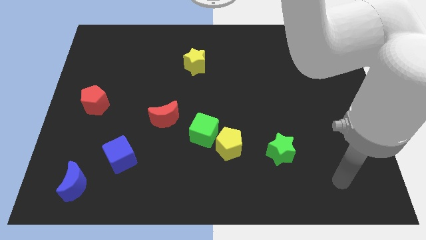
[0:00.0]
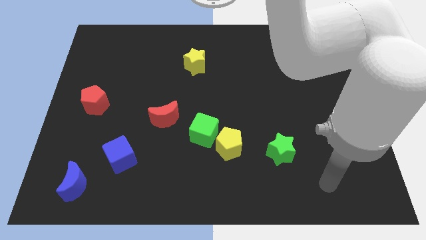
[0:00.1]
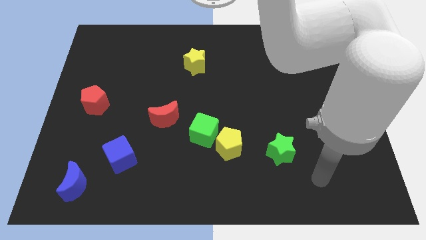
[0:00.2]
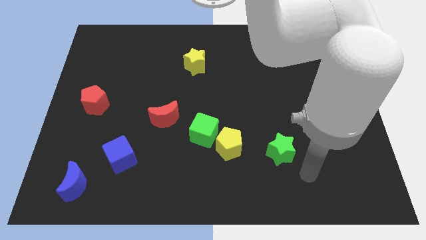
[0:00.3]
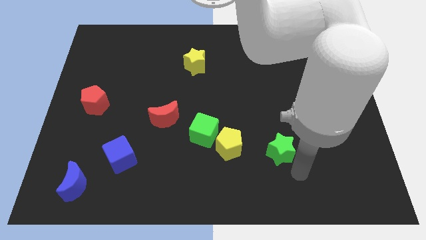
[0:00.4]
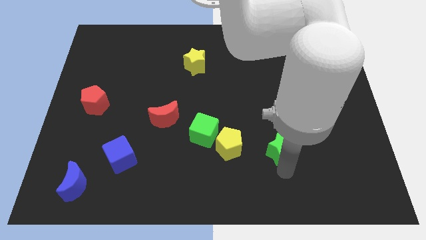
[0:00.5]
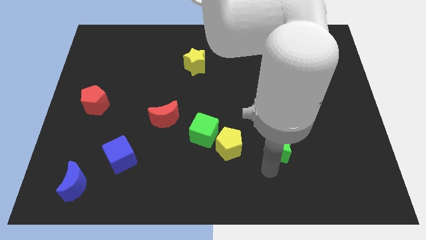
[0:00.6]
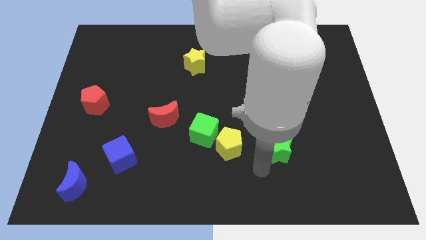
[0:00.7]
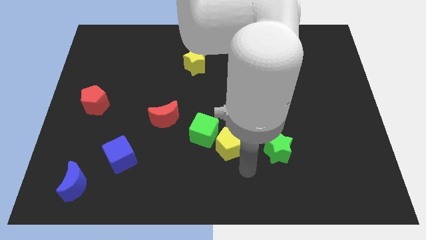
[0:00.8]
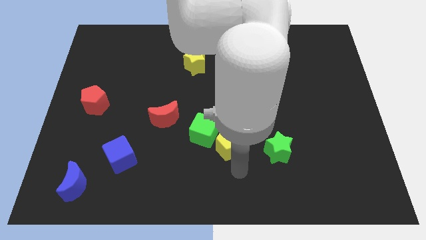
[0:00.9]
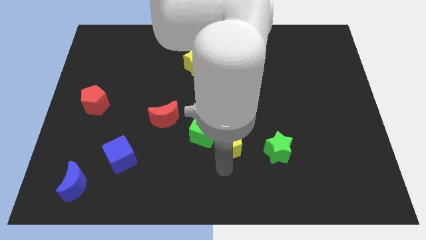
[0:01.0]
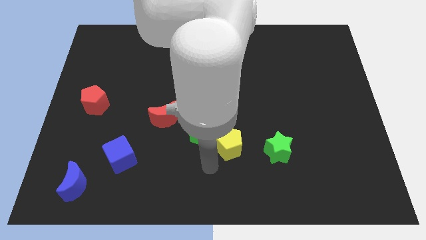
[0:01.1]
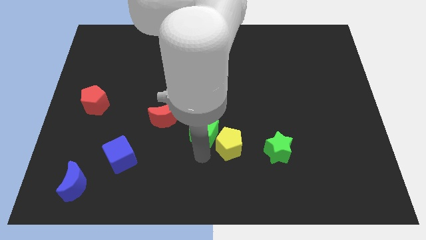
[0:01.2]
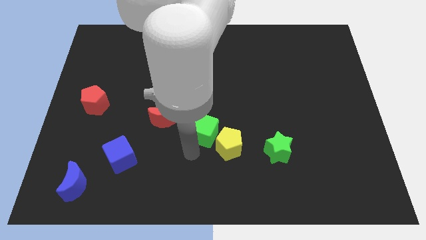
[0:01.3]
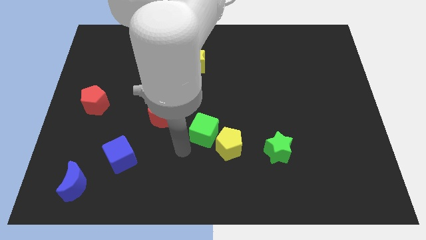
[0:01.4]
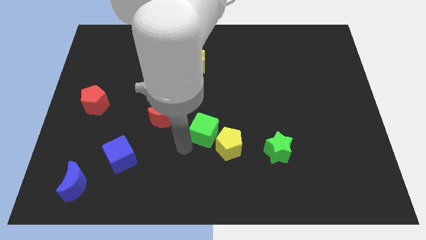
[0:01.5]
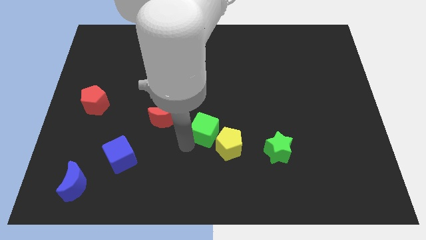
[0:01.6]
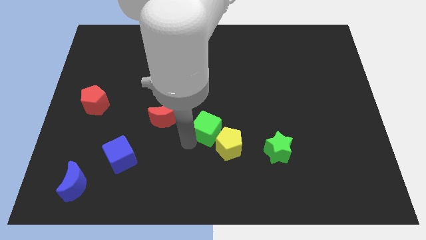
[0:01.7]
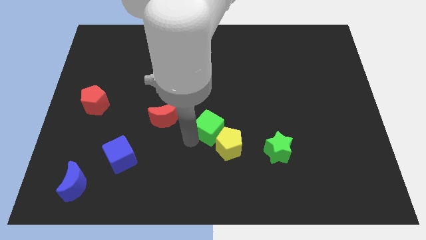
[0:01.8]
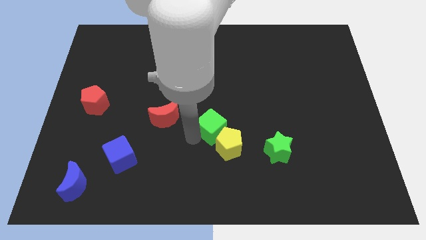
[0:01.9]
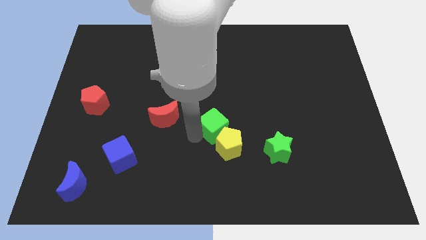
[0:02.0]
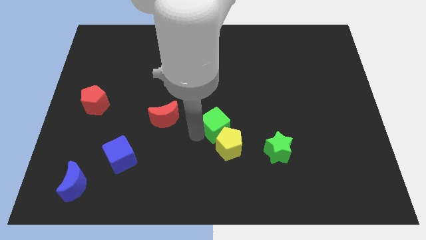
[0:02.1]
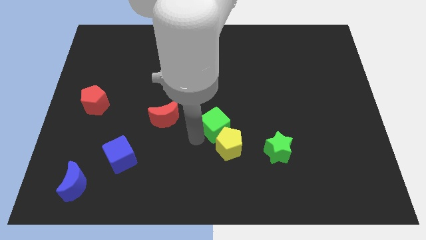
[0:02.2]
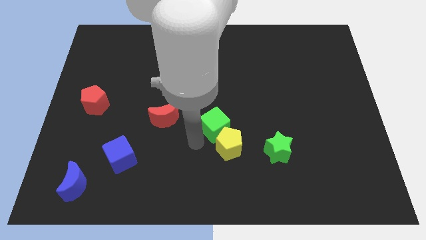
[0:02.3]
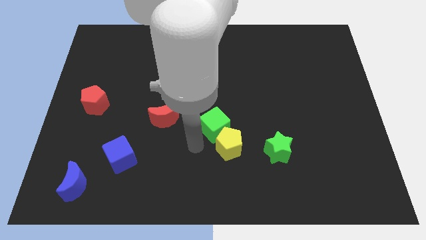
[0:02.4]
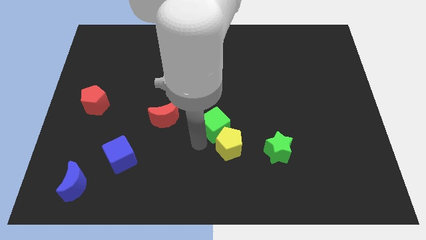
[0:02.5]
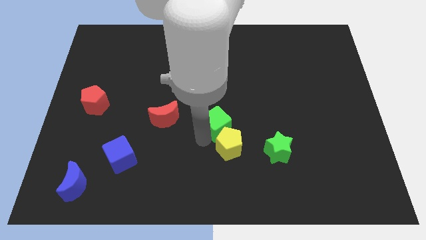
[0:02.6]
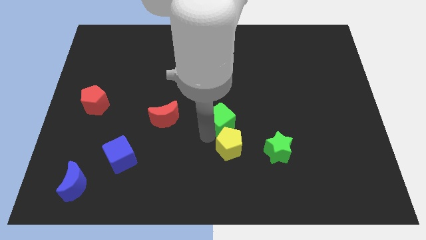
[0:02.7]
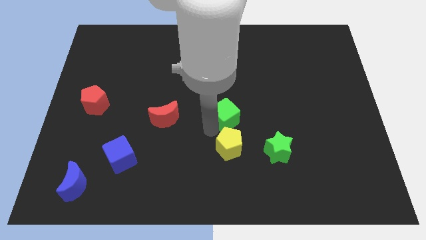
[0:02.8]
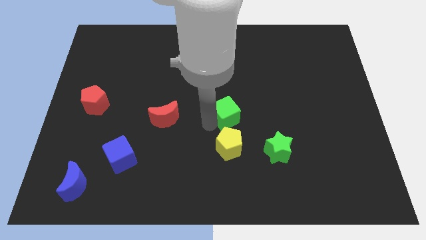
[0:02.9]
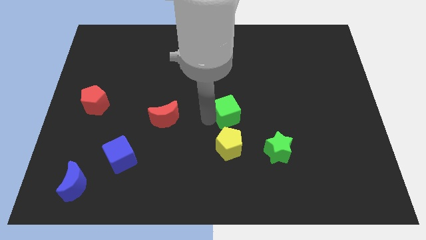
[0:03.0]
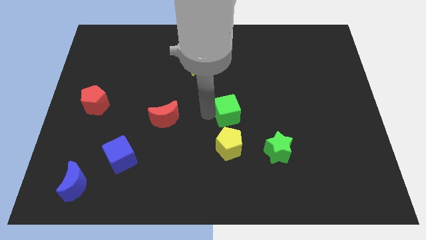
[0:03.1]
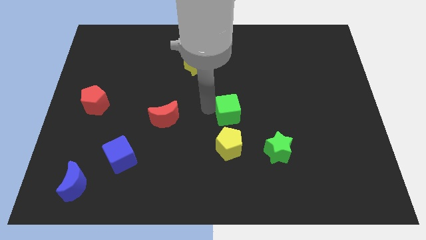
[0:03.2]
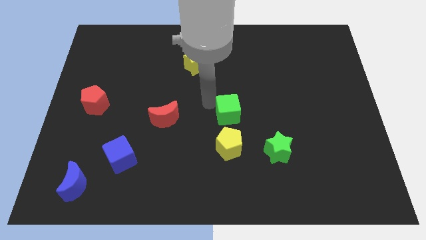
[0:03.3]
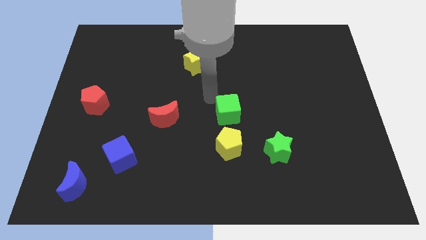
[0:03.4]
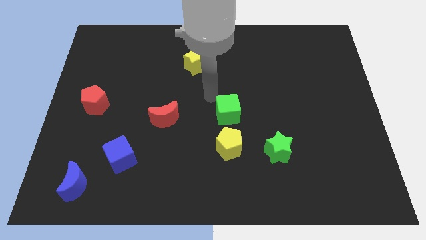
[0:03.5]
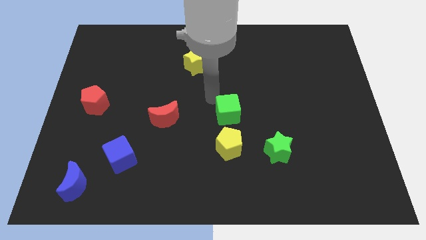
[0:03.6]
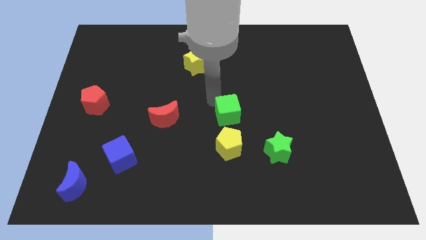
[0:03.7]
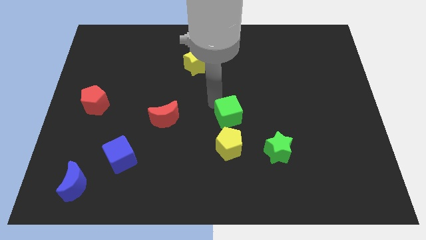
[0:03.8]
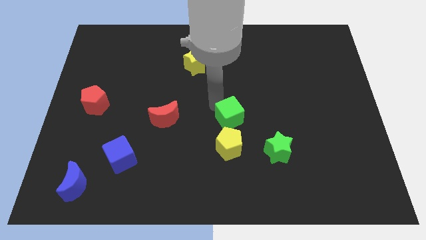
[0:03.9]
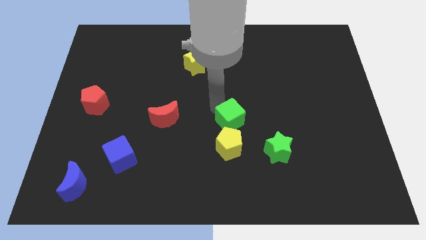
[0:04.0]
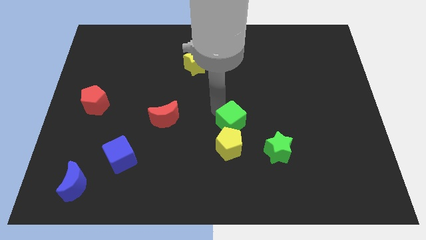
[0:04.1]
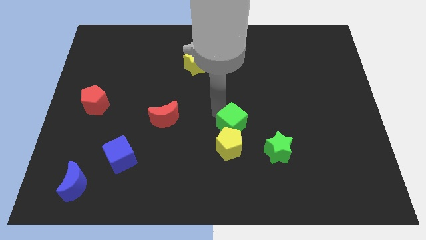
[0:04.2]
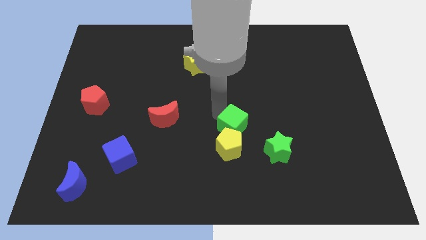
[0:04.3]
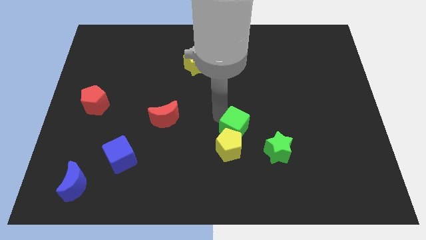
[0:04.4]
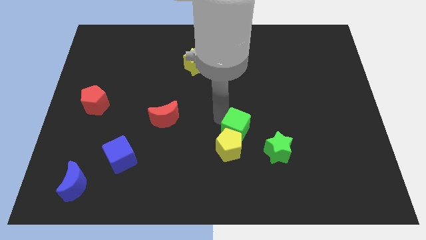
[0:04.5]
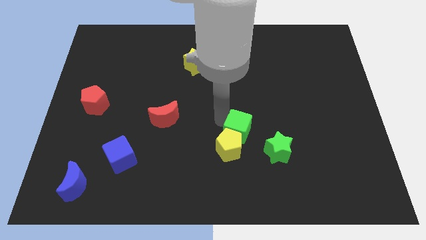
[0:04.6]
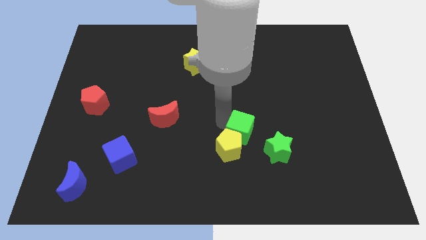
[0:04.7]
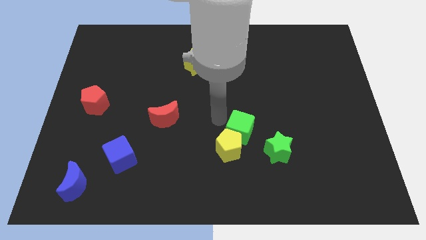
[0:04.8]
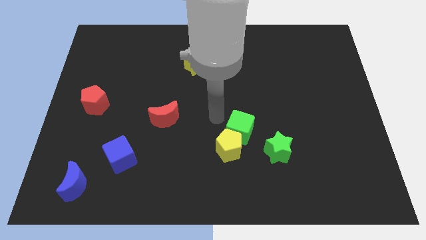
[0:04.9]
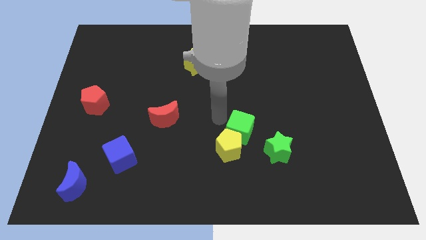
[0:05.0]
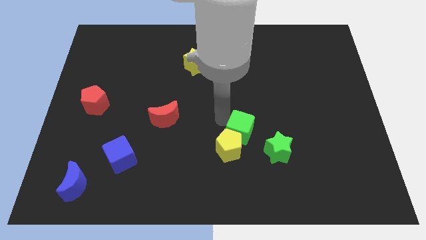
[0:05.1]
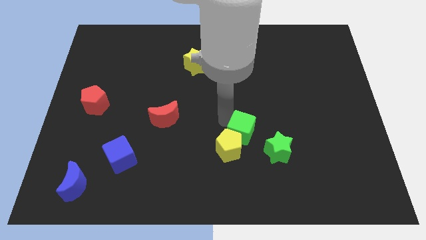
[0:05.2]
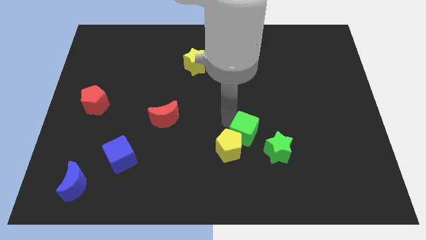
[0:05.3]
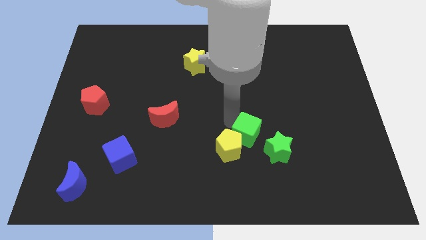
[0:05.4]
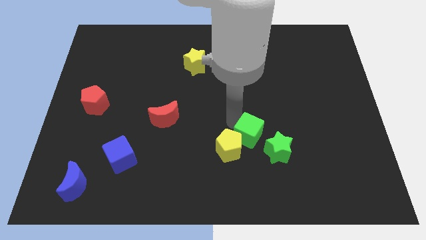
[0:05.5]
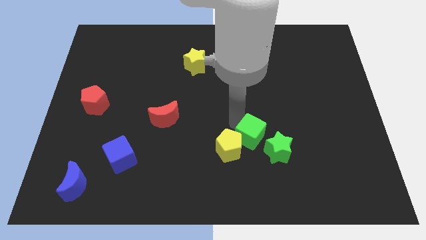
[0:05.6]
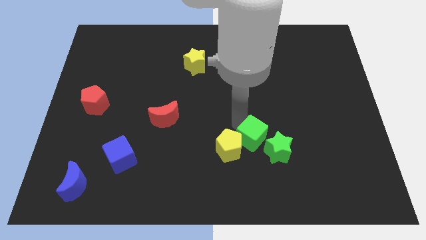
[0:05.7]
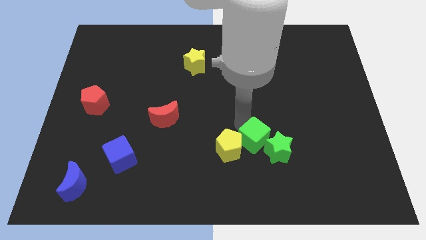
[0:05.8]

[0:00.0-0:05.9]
slide the green cube towards the green star

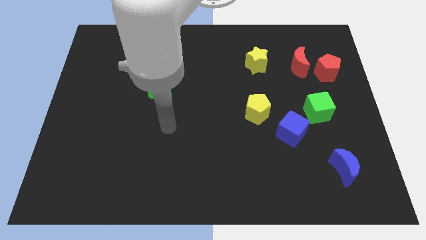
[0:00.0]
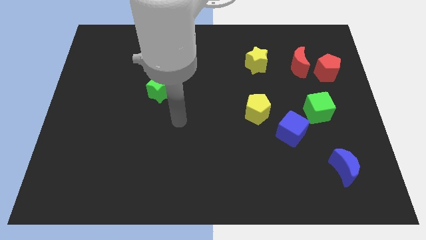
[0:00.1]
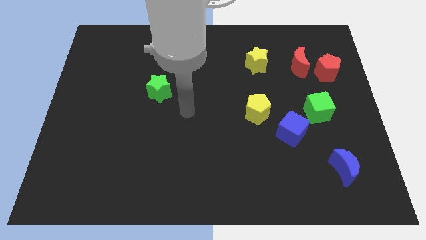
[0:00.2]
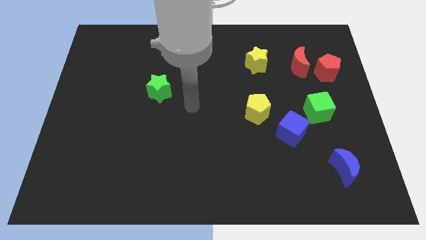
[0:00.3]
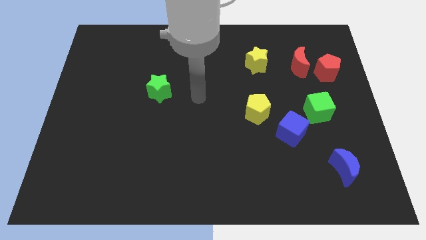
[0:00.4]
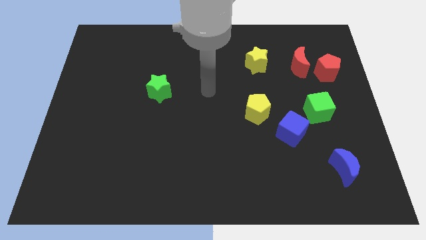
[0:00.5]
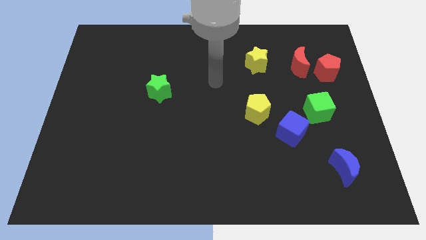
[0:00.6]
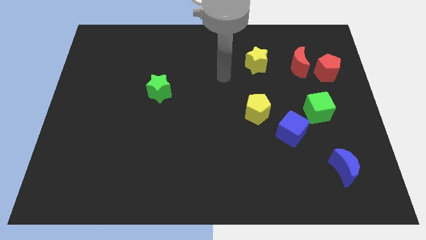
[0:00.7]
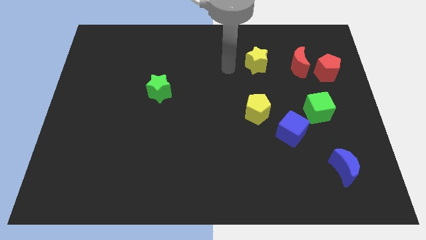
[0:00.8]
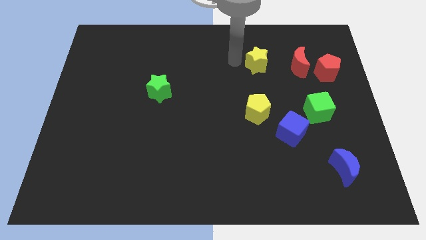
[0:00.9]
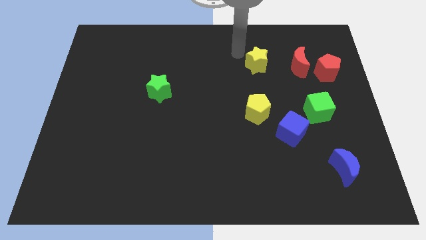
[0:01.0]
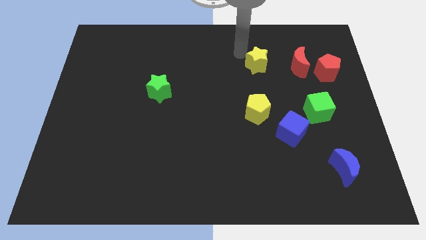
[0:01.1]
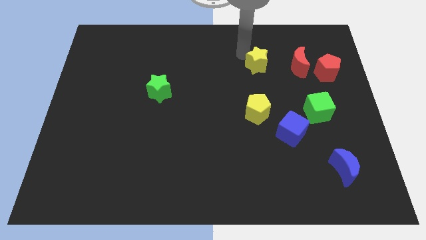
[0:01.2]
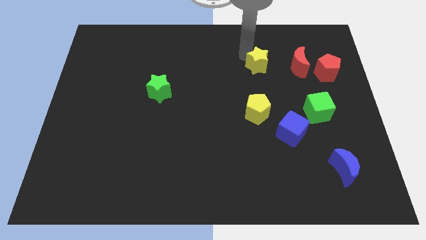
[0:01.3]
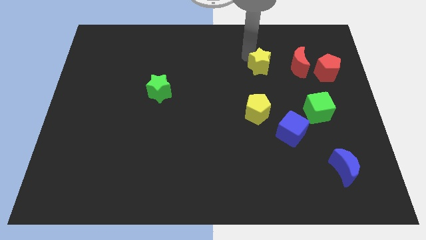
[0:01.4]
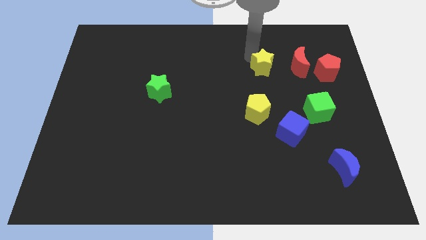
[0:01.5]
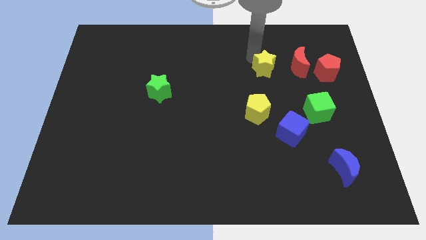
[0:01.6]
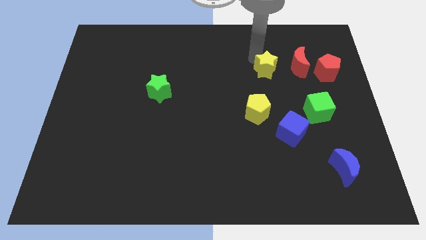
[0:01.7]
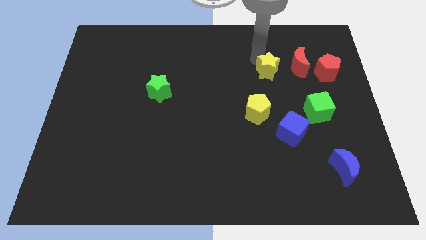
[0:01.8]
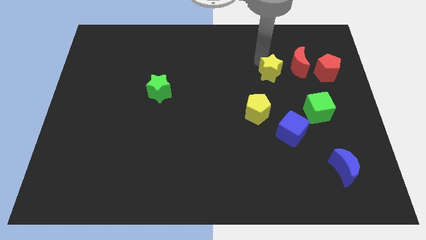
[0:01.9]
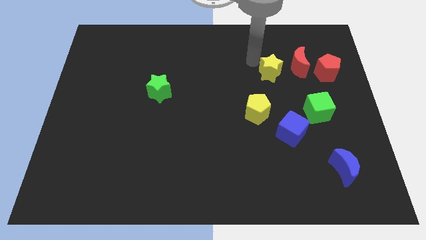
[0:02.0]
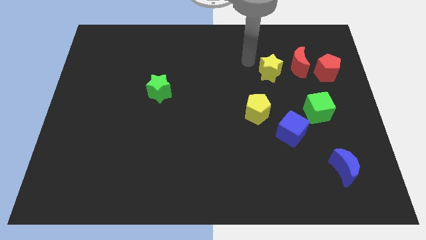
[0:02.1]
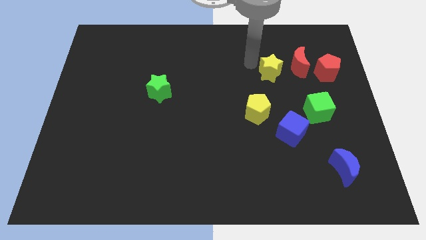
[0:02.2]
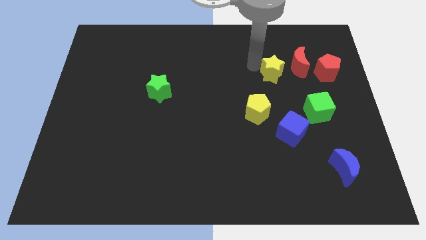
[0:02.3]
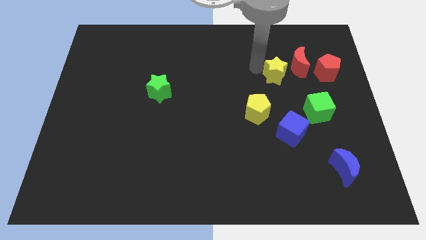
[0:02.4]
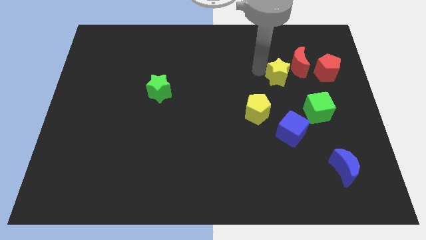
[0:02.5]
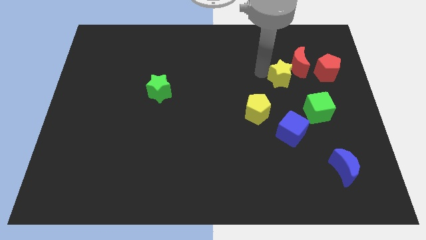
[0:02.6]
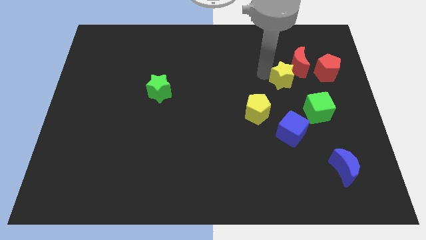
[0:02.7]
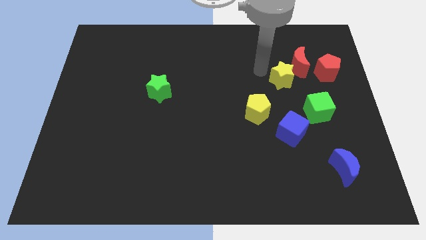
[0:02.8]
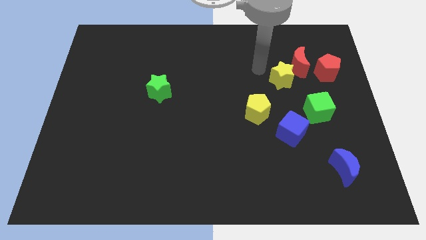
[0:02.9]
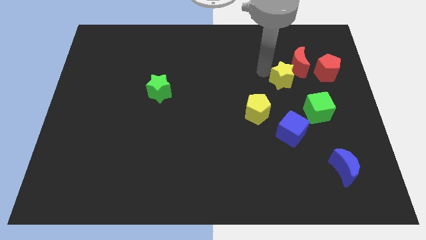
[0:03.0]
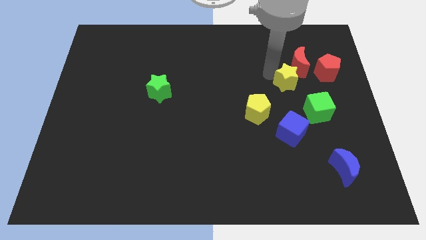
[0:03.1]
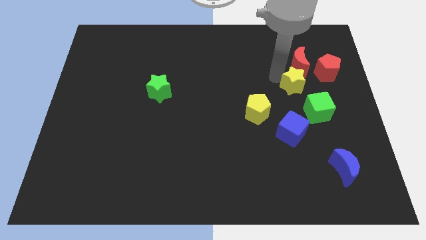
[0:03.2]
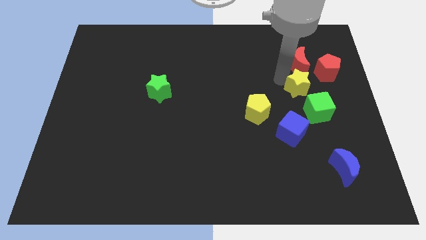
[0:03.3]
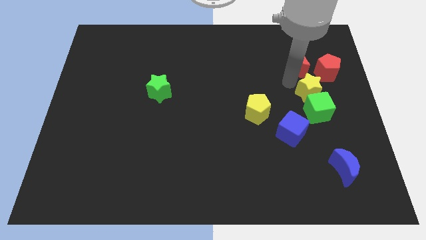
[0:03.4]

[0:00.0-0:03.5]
put the yellow star towards the green cube
